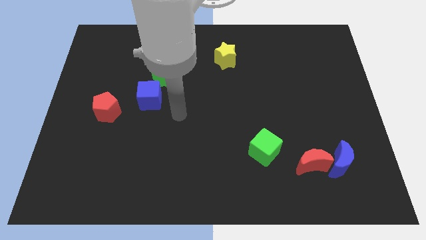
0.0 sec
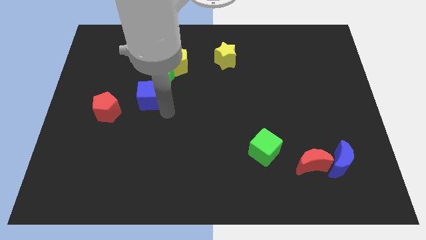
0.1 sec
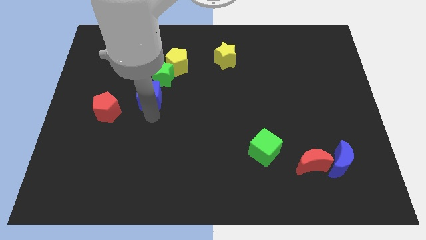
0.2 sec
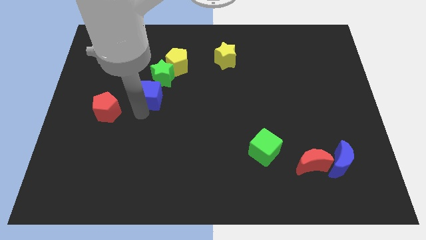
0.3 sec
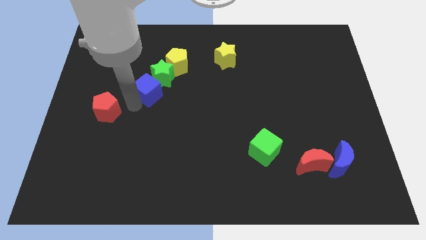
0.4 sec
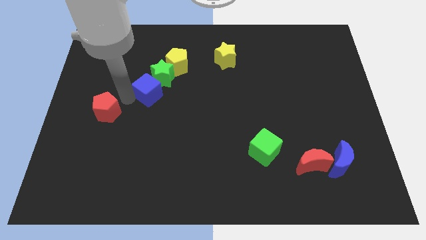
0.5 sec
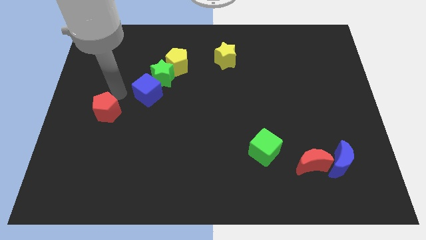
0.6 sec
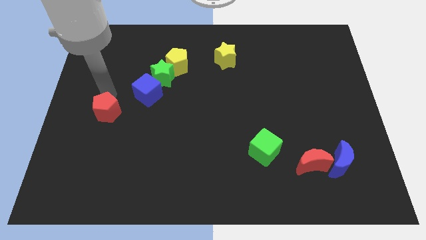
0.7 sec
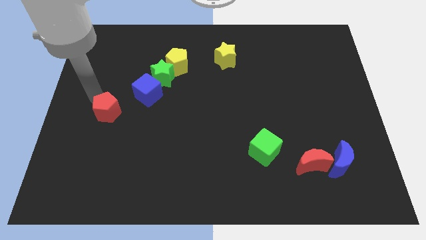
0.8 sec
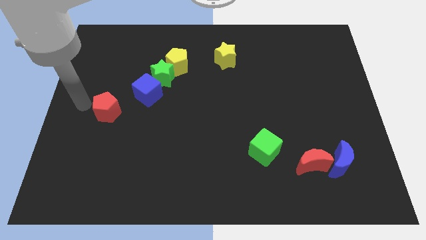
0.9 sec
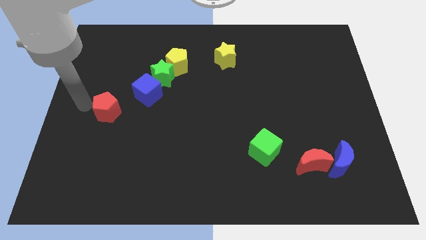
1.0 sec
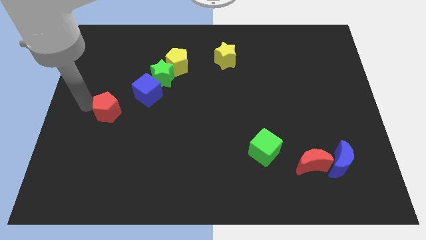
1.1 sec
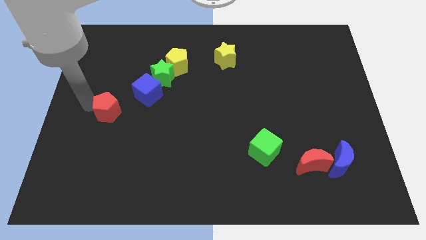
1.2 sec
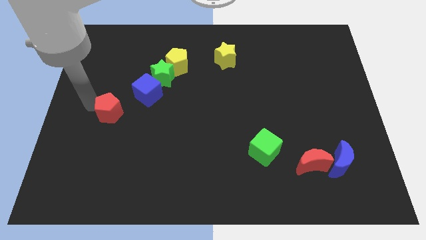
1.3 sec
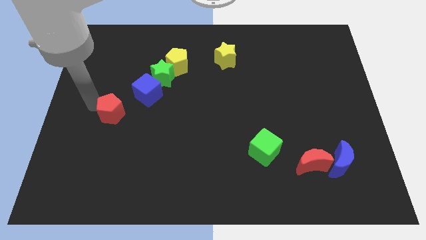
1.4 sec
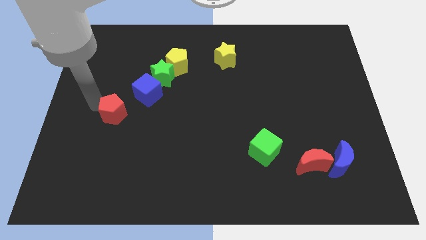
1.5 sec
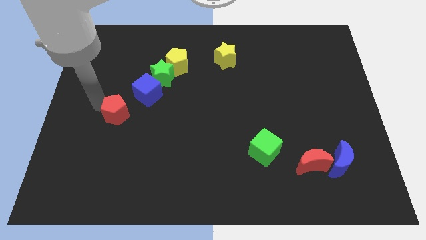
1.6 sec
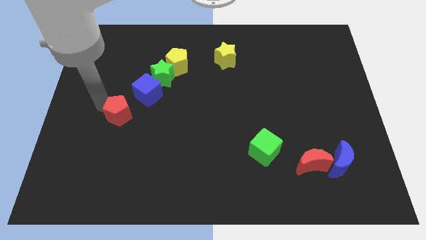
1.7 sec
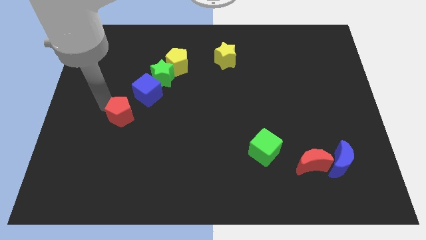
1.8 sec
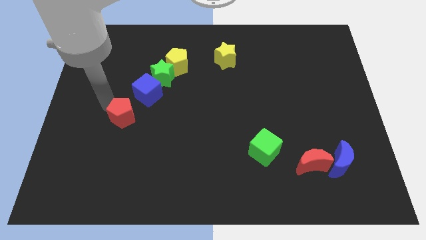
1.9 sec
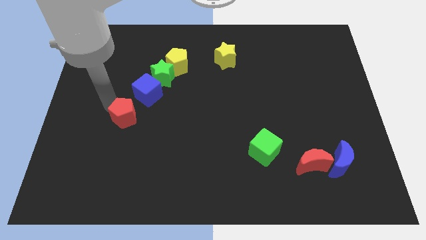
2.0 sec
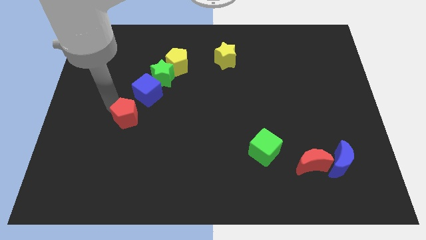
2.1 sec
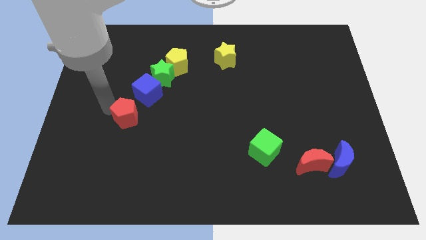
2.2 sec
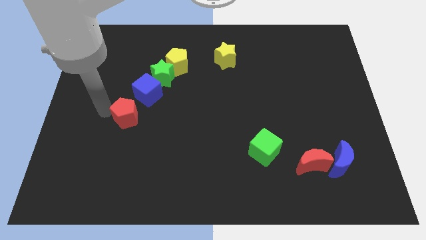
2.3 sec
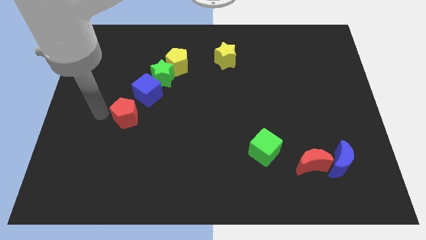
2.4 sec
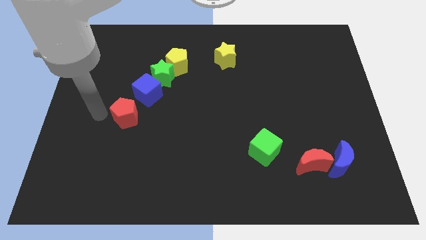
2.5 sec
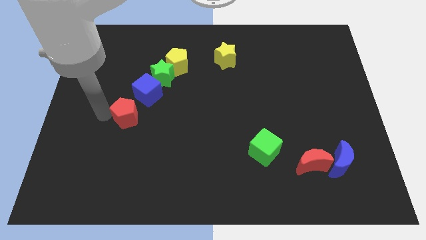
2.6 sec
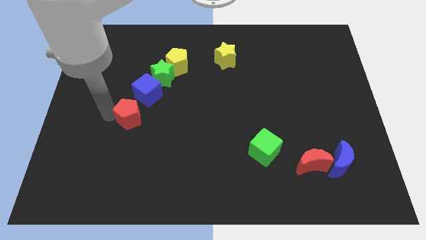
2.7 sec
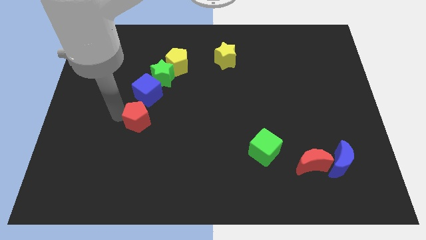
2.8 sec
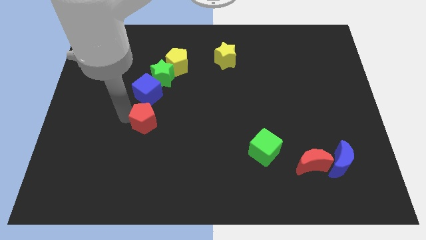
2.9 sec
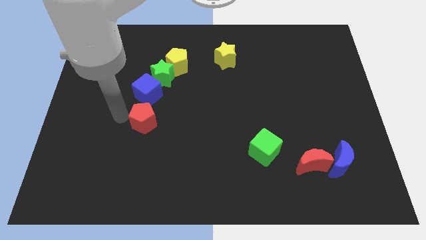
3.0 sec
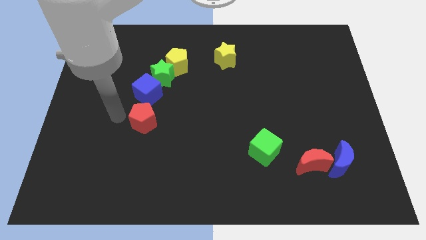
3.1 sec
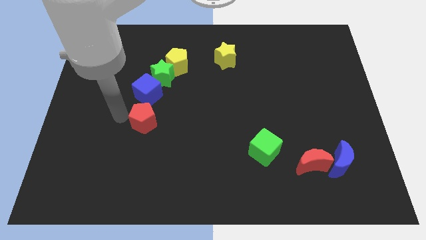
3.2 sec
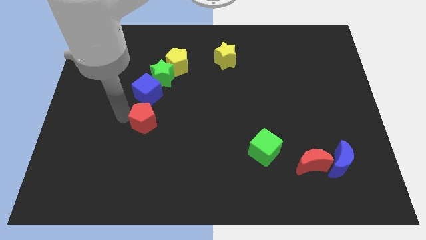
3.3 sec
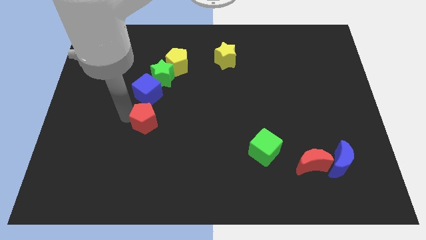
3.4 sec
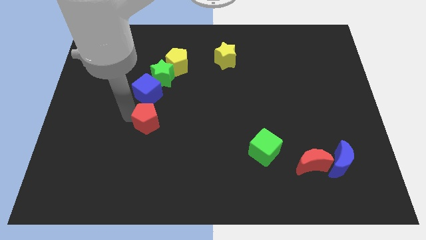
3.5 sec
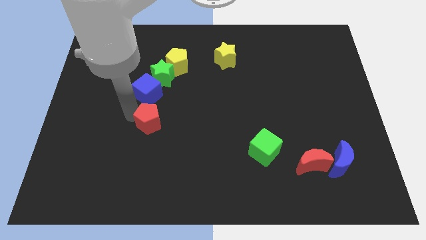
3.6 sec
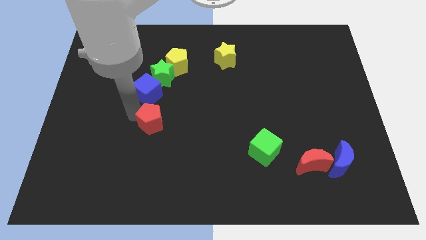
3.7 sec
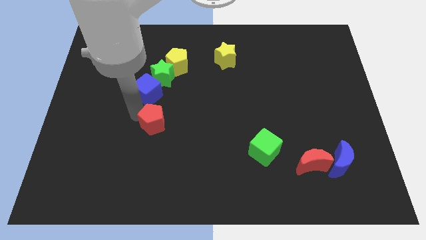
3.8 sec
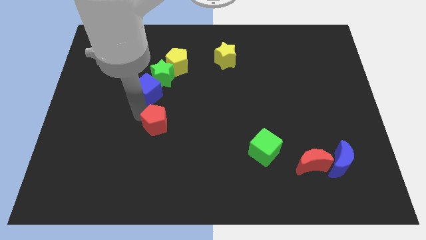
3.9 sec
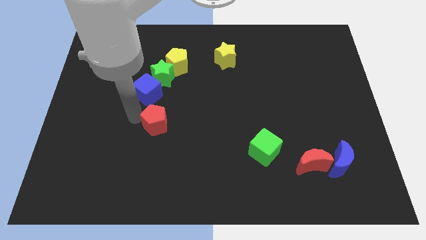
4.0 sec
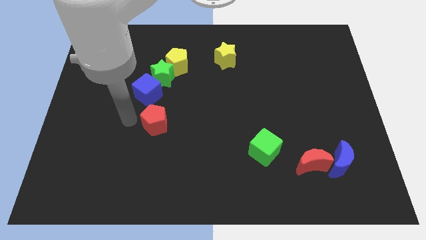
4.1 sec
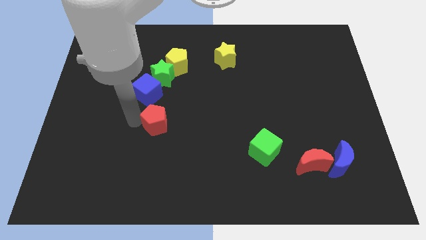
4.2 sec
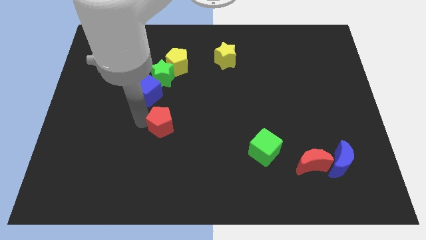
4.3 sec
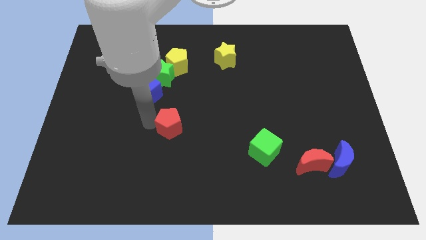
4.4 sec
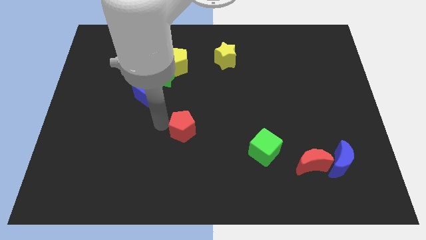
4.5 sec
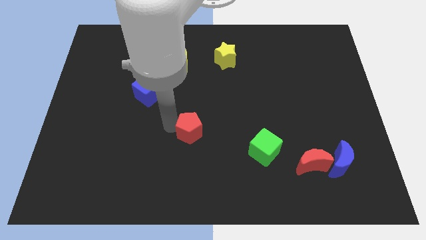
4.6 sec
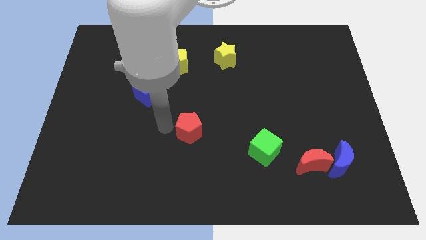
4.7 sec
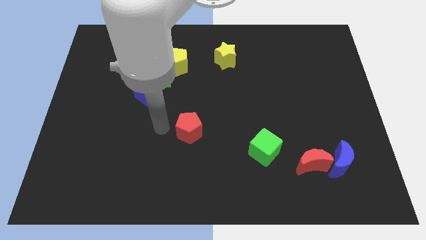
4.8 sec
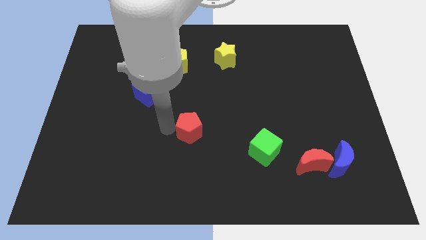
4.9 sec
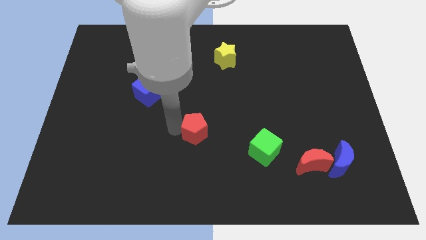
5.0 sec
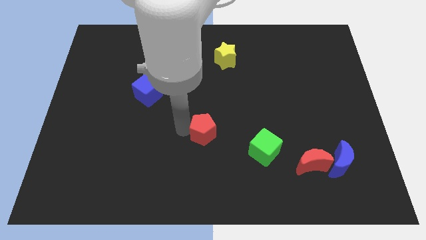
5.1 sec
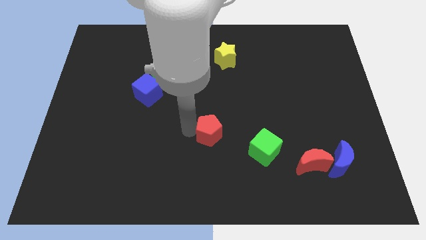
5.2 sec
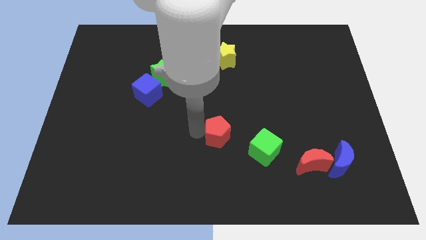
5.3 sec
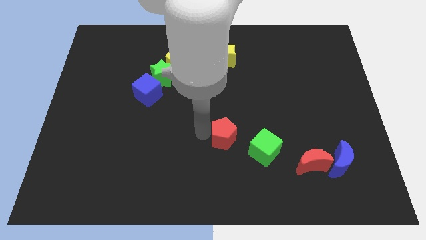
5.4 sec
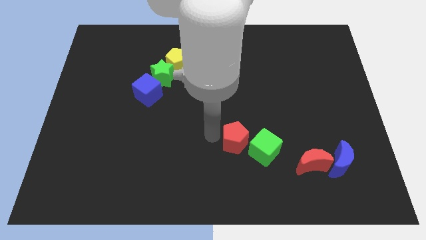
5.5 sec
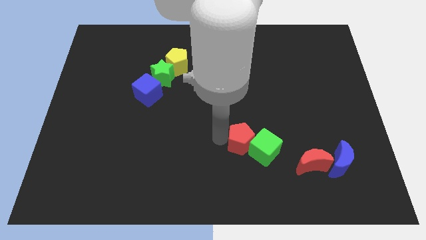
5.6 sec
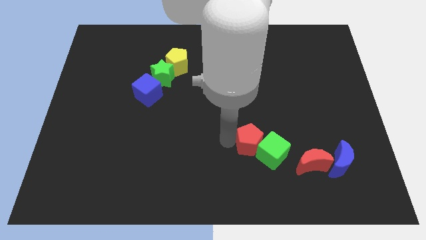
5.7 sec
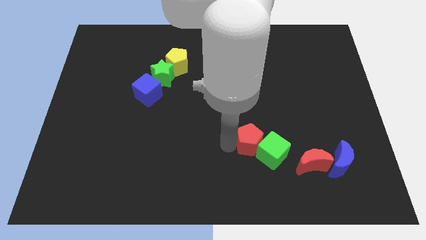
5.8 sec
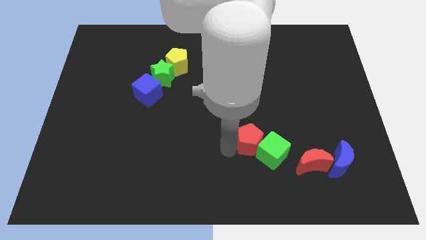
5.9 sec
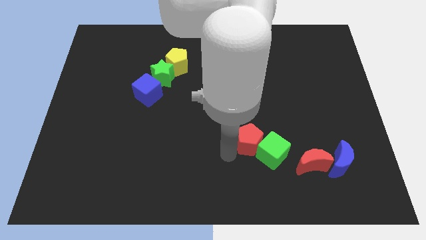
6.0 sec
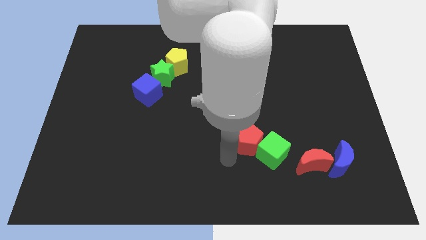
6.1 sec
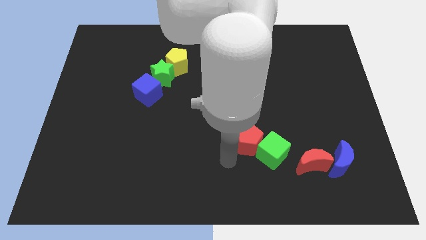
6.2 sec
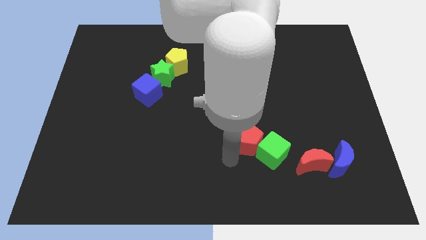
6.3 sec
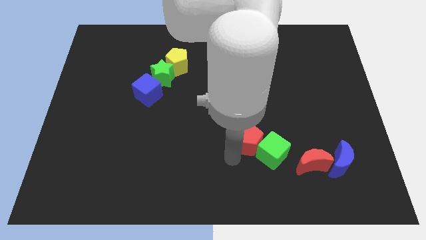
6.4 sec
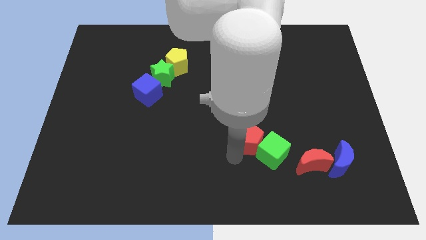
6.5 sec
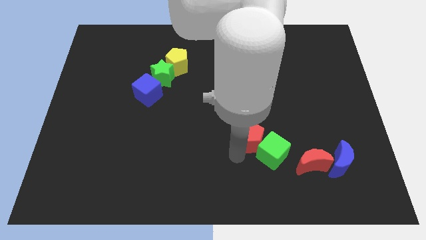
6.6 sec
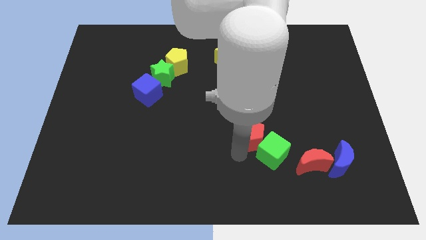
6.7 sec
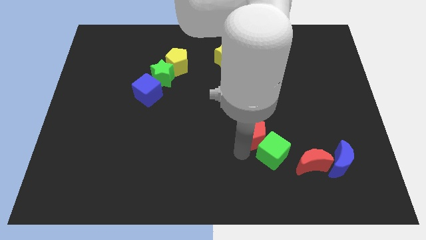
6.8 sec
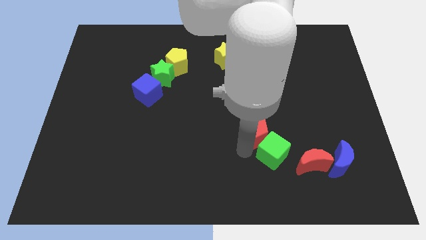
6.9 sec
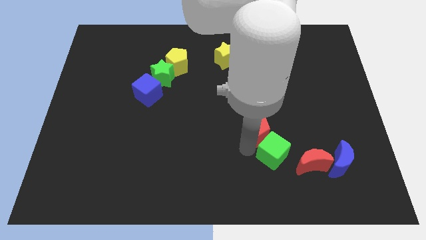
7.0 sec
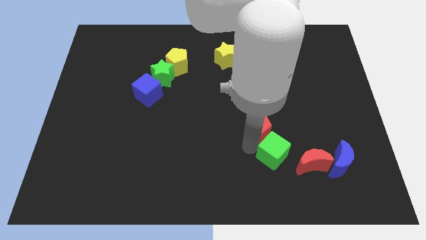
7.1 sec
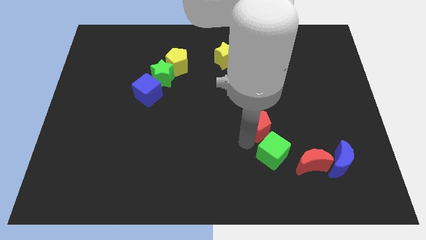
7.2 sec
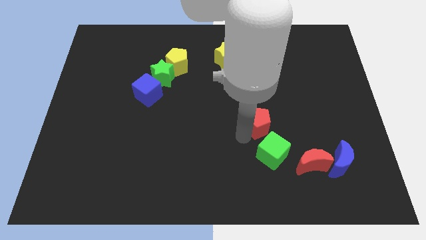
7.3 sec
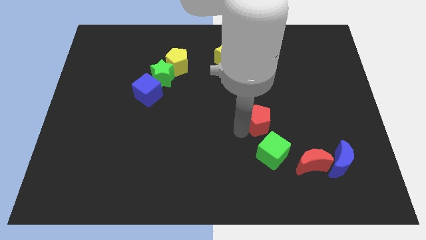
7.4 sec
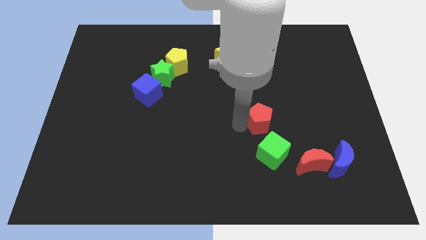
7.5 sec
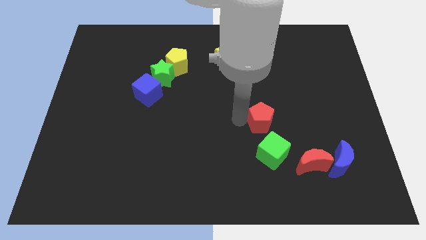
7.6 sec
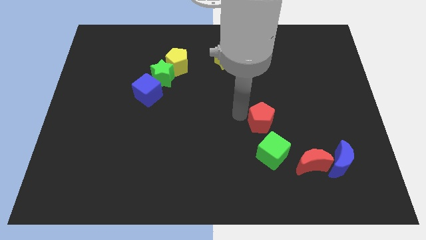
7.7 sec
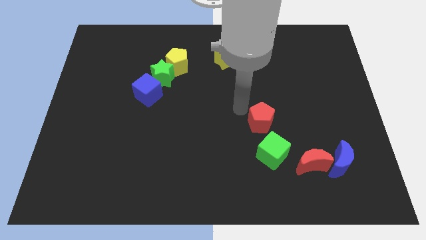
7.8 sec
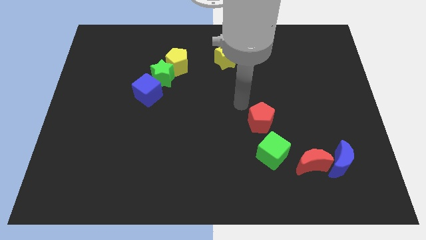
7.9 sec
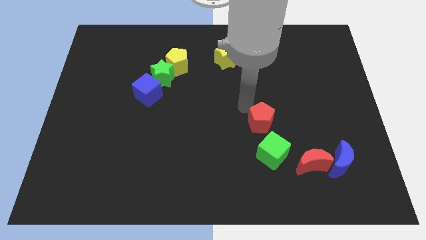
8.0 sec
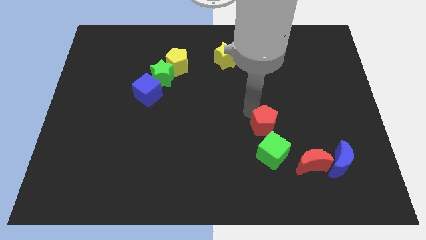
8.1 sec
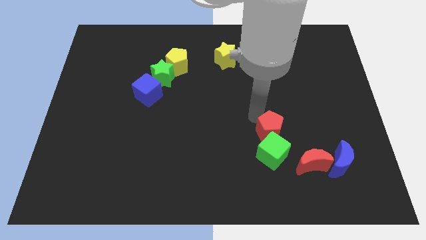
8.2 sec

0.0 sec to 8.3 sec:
put the red pentagon diagonally up and to the left of the red moon
